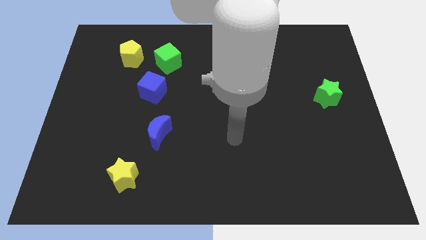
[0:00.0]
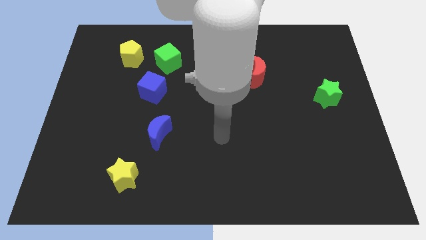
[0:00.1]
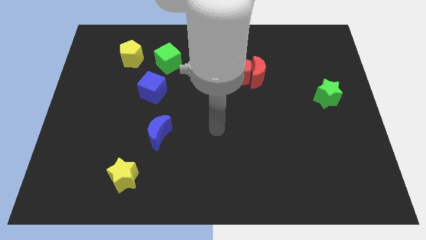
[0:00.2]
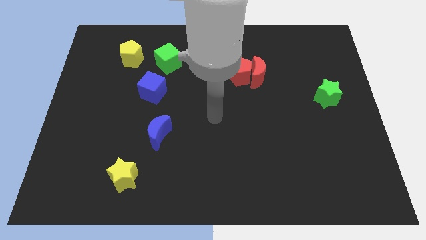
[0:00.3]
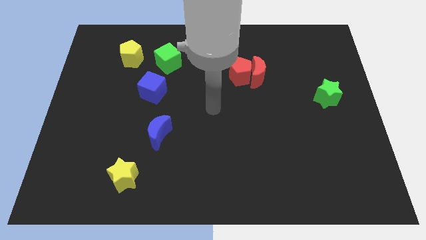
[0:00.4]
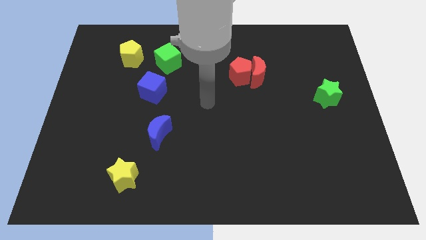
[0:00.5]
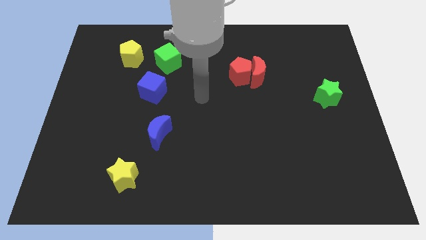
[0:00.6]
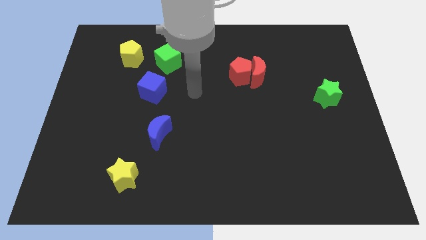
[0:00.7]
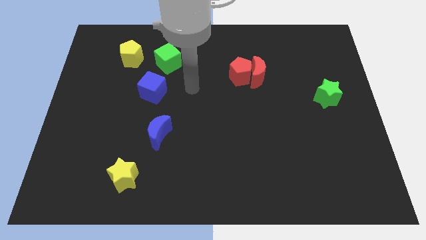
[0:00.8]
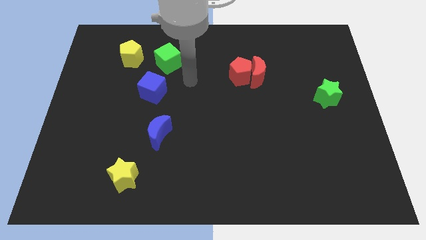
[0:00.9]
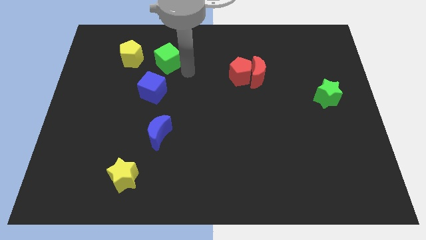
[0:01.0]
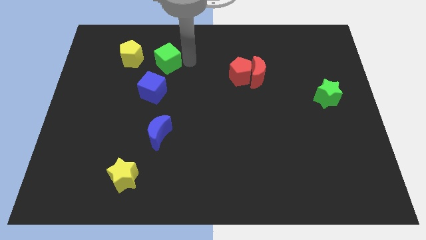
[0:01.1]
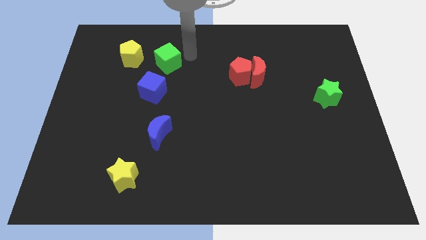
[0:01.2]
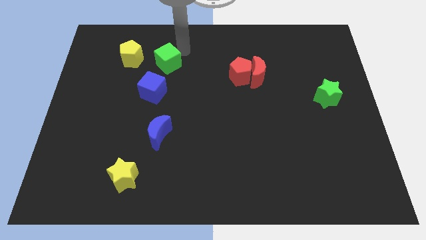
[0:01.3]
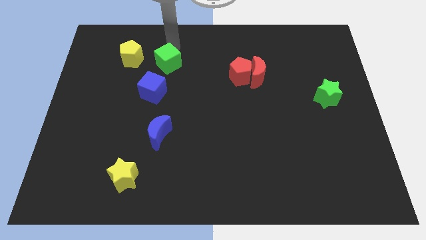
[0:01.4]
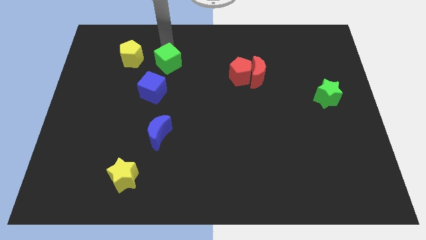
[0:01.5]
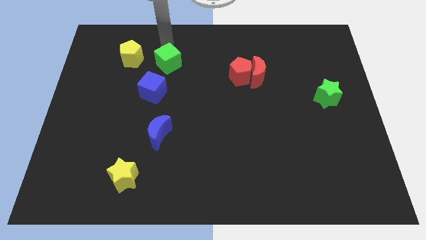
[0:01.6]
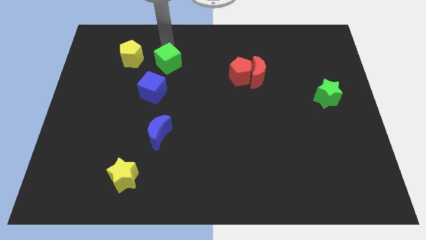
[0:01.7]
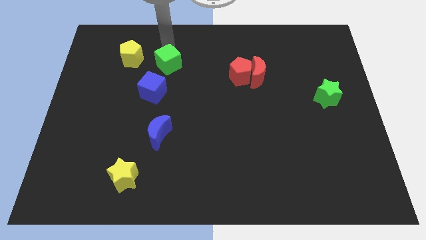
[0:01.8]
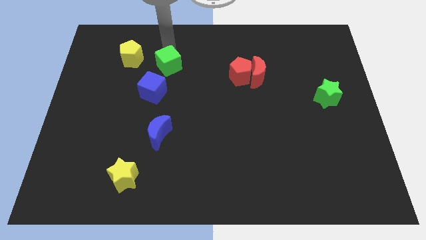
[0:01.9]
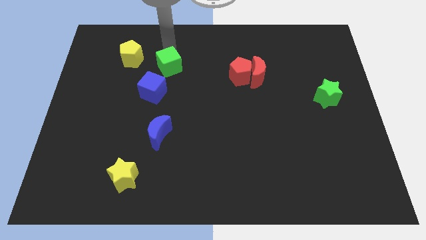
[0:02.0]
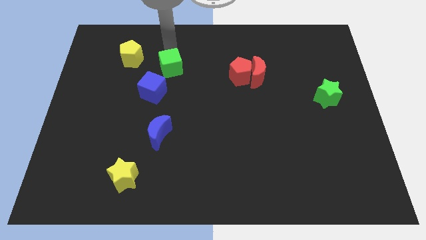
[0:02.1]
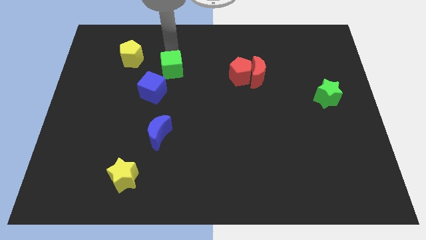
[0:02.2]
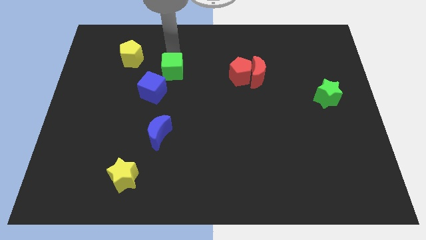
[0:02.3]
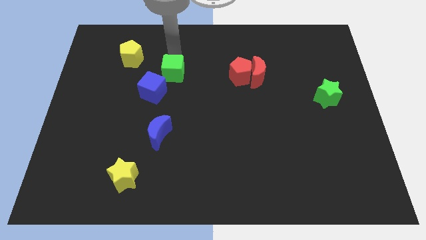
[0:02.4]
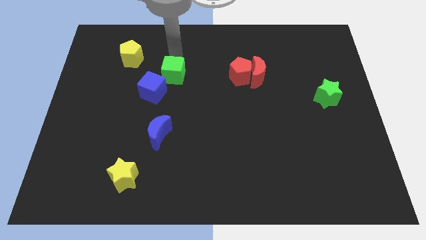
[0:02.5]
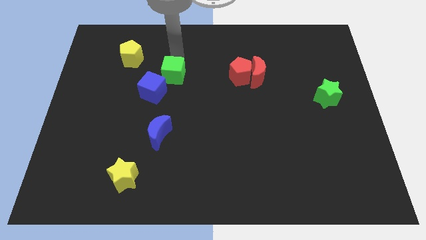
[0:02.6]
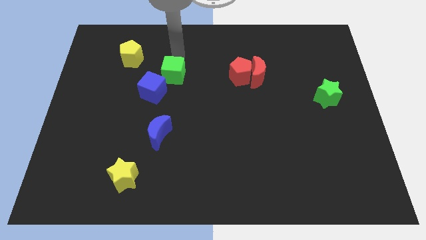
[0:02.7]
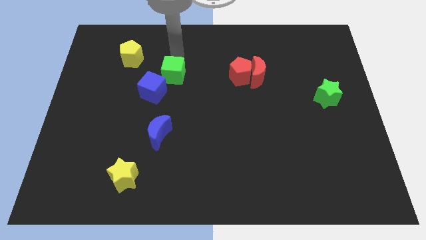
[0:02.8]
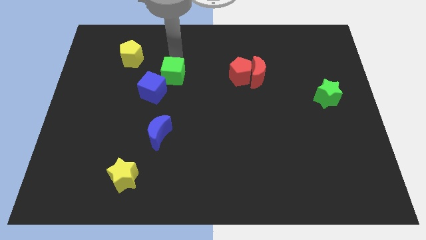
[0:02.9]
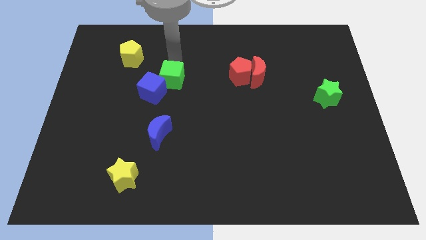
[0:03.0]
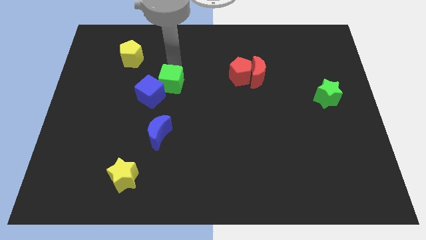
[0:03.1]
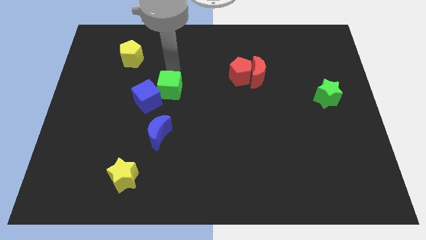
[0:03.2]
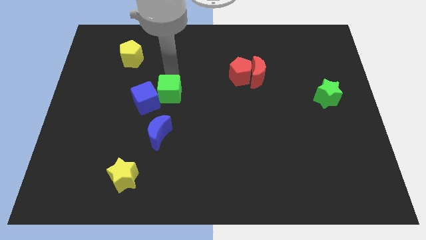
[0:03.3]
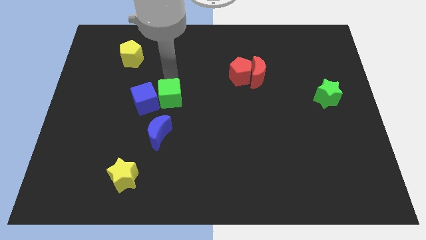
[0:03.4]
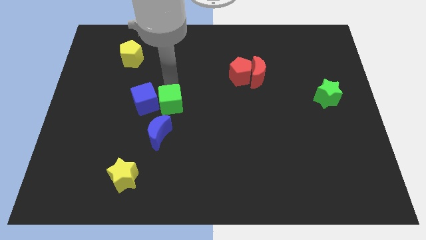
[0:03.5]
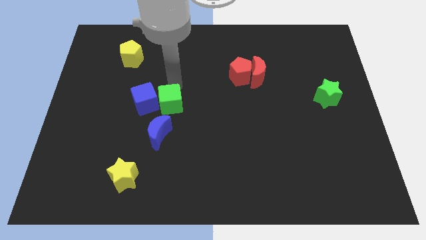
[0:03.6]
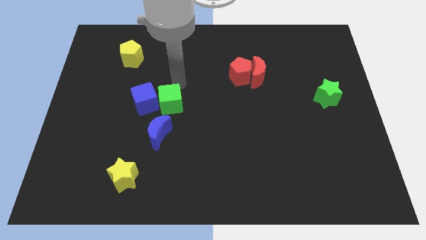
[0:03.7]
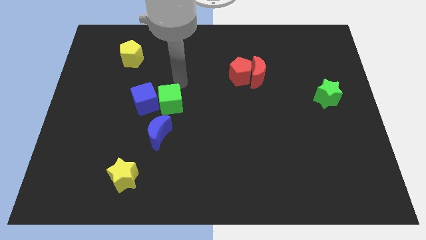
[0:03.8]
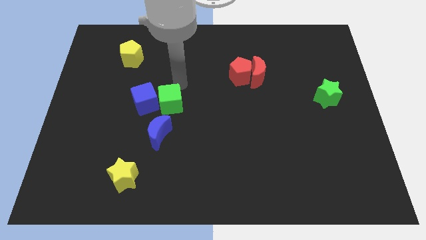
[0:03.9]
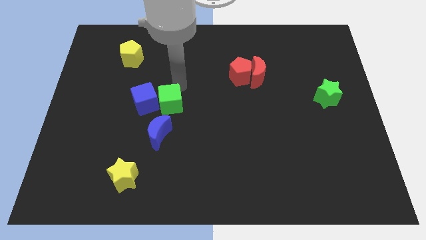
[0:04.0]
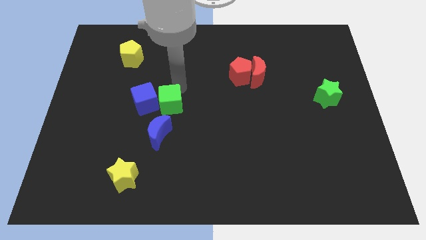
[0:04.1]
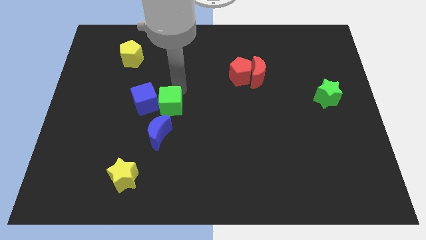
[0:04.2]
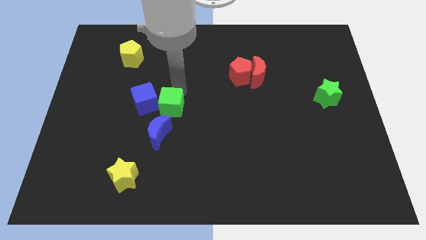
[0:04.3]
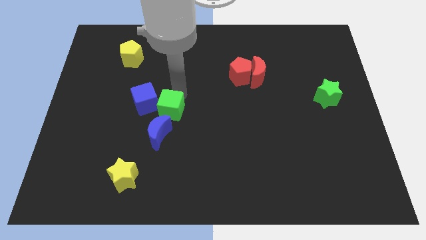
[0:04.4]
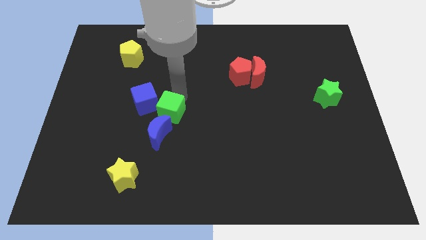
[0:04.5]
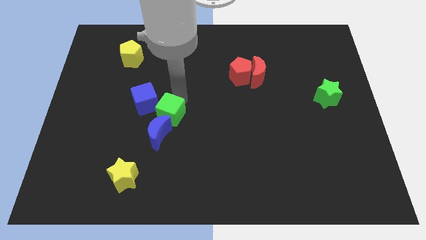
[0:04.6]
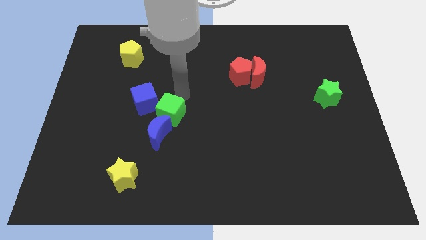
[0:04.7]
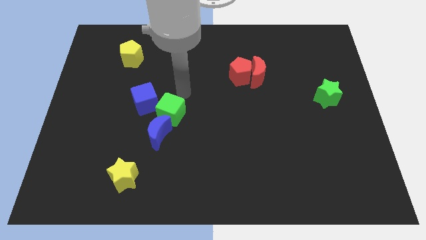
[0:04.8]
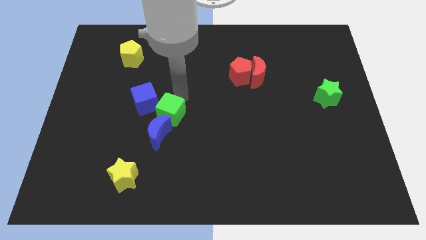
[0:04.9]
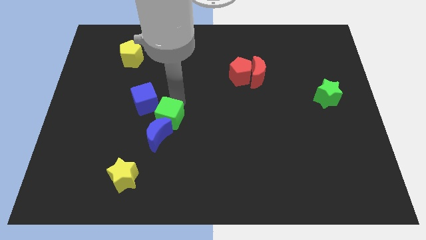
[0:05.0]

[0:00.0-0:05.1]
move the green cube close to the blue moon

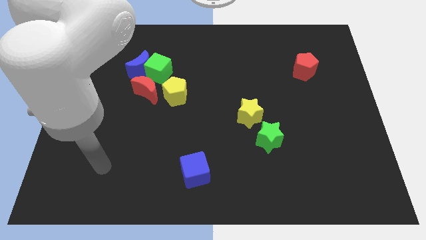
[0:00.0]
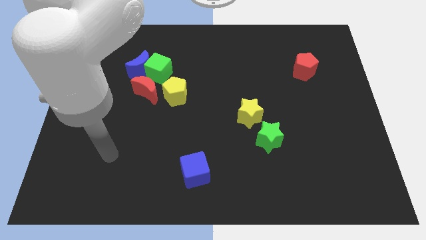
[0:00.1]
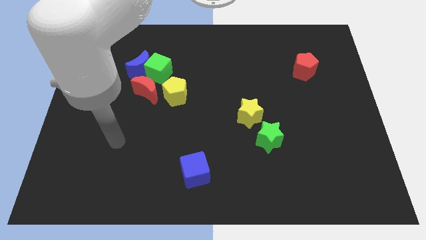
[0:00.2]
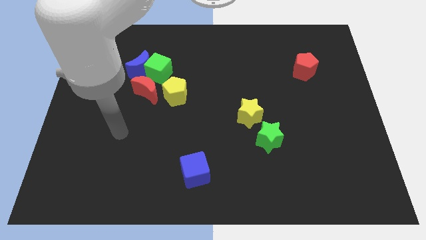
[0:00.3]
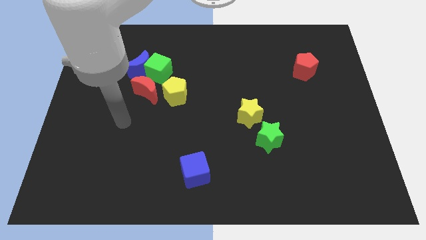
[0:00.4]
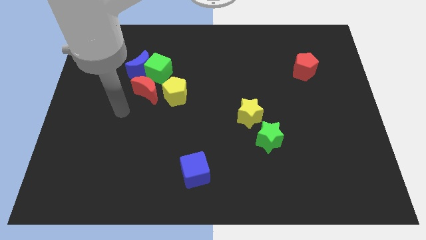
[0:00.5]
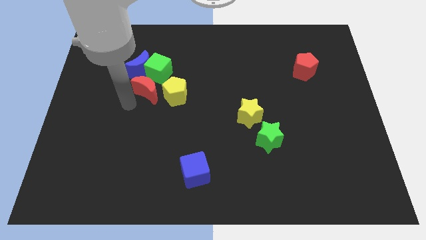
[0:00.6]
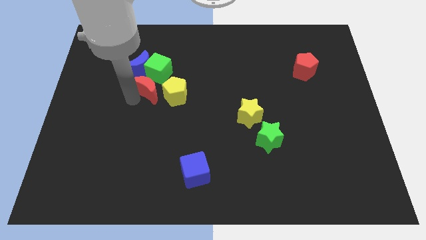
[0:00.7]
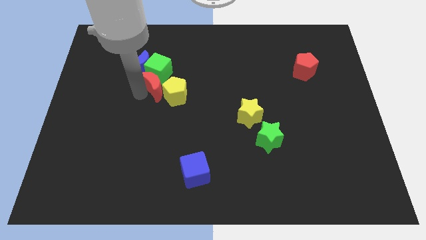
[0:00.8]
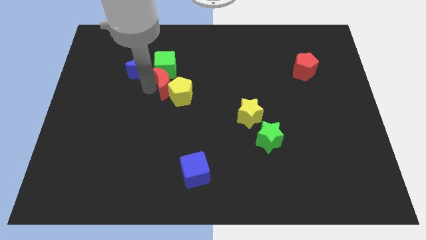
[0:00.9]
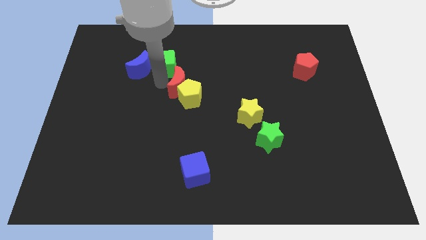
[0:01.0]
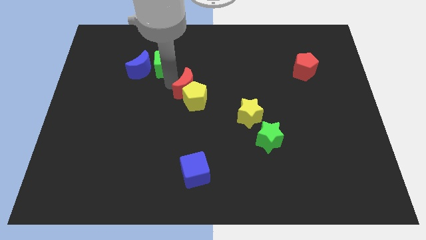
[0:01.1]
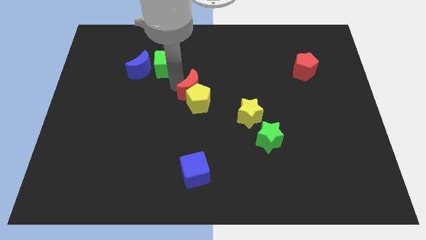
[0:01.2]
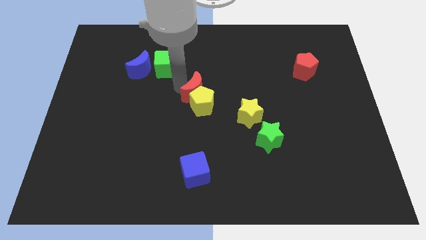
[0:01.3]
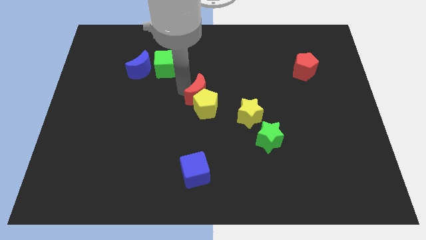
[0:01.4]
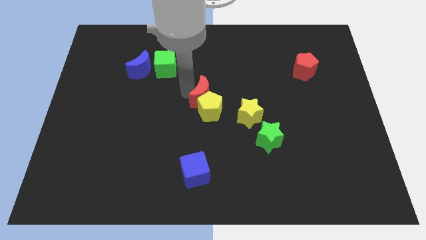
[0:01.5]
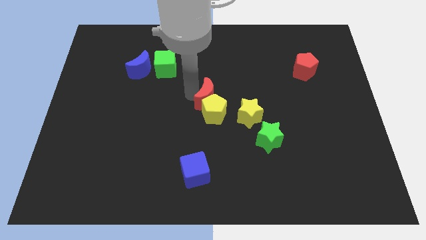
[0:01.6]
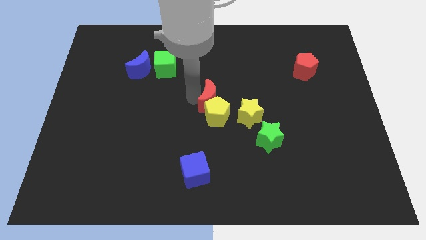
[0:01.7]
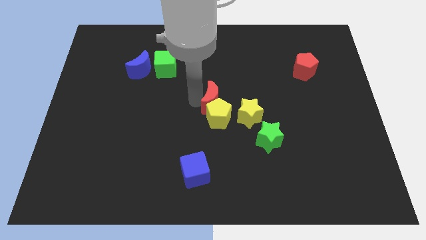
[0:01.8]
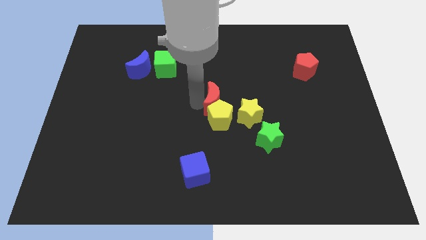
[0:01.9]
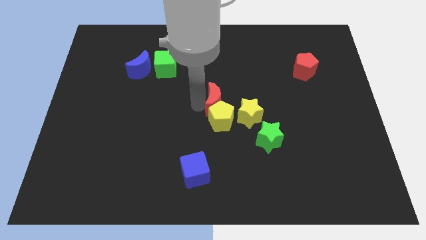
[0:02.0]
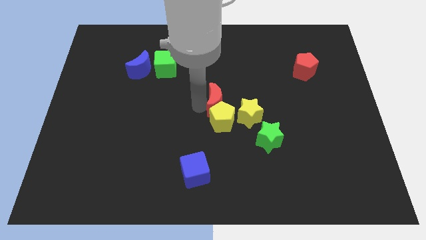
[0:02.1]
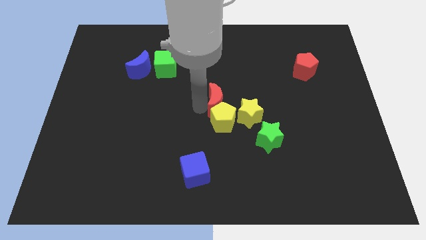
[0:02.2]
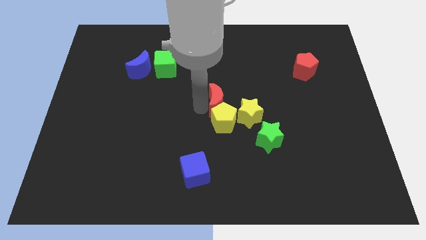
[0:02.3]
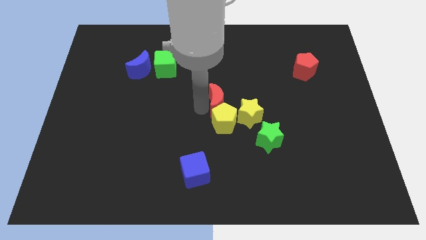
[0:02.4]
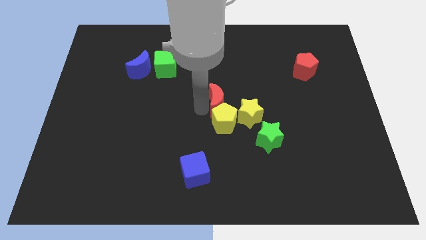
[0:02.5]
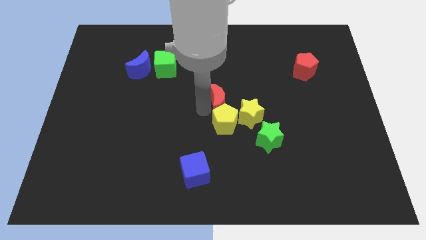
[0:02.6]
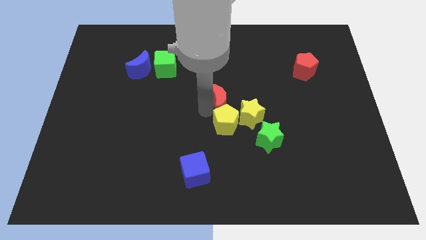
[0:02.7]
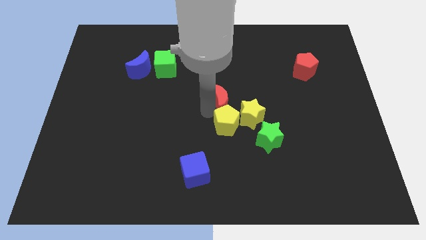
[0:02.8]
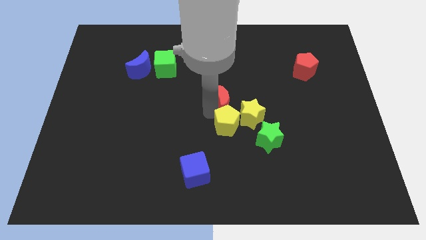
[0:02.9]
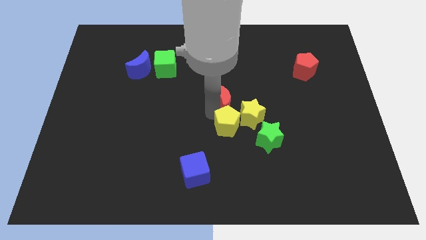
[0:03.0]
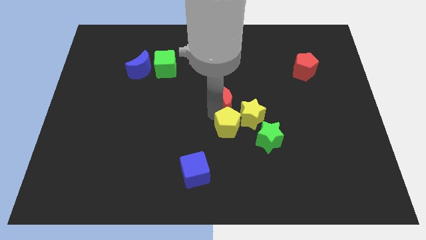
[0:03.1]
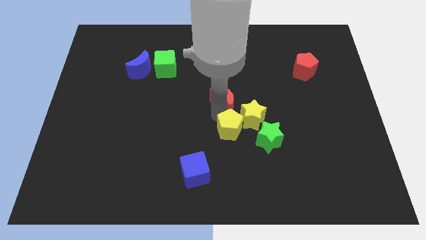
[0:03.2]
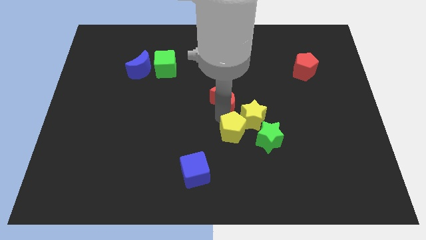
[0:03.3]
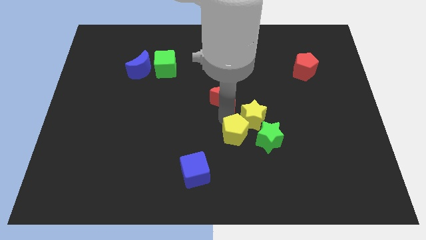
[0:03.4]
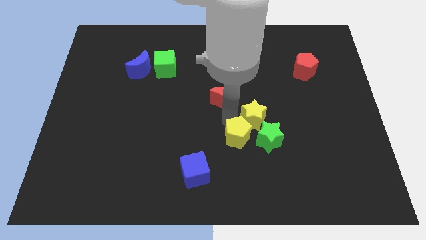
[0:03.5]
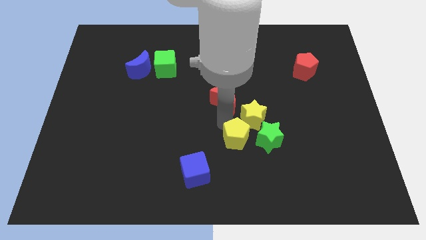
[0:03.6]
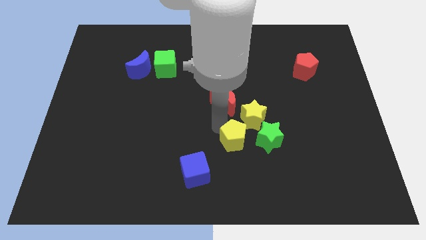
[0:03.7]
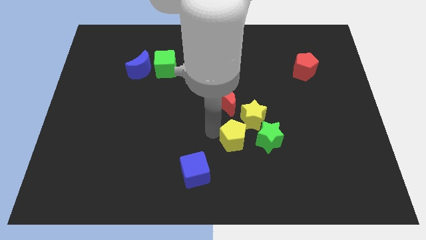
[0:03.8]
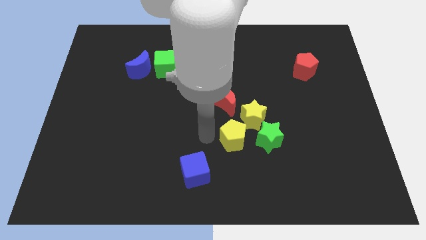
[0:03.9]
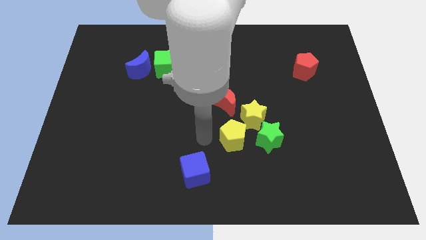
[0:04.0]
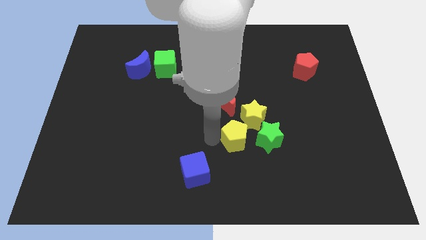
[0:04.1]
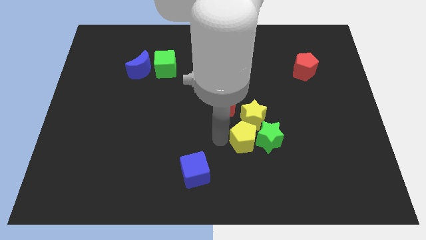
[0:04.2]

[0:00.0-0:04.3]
put the yellow pentagon close to the green star
